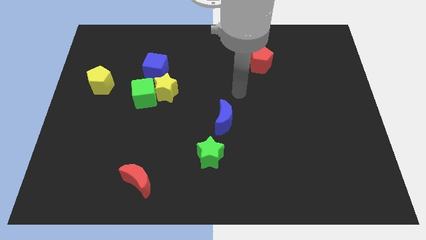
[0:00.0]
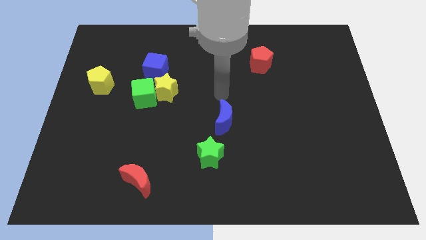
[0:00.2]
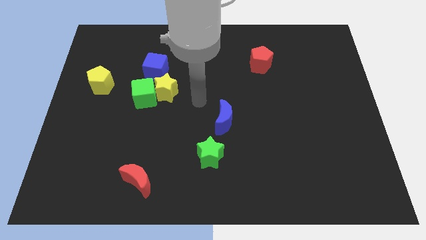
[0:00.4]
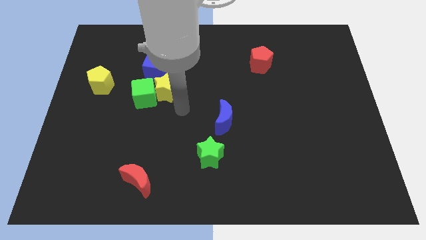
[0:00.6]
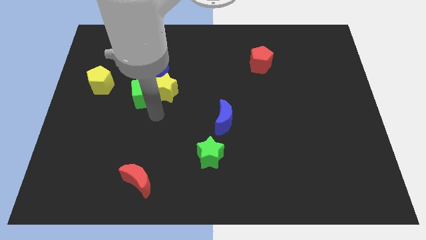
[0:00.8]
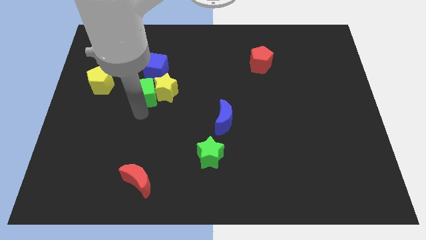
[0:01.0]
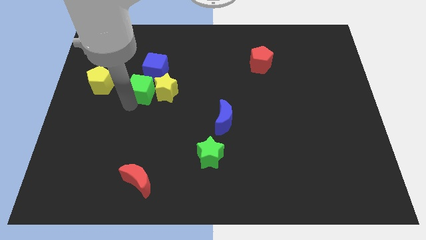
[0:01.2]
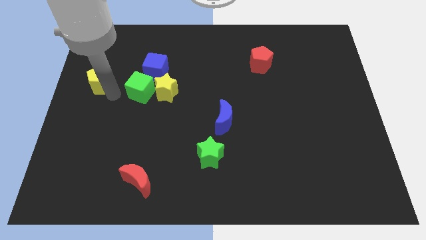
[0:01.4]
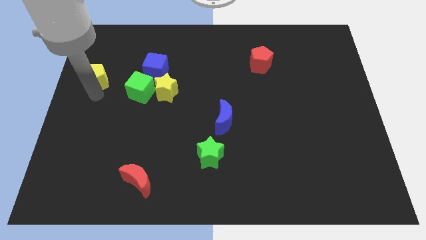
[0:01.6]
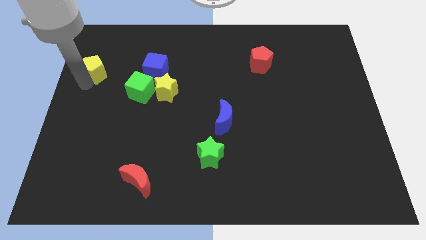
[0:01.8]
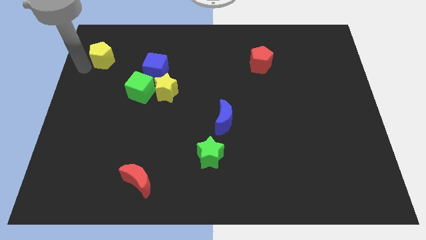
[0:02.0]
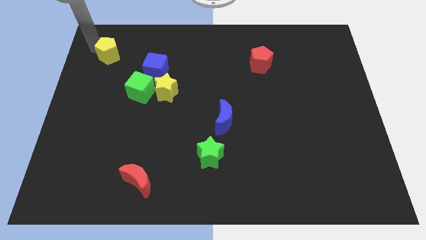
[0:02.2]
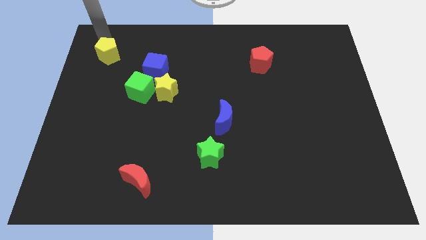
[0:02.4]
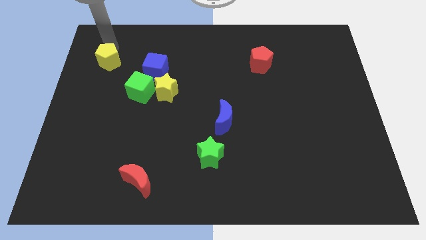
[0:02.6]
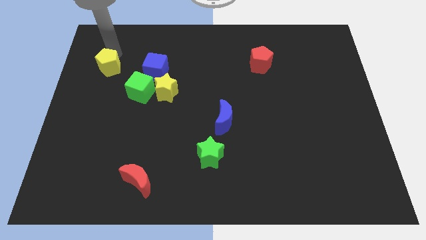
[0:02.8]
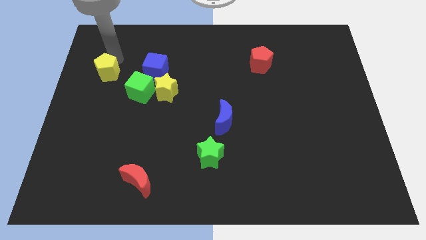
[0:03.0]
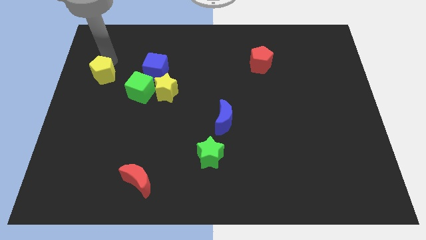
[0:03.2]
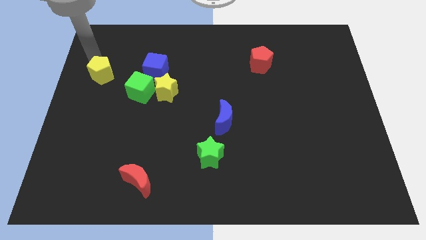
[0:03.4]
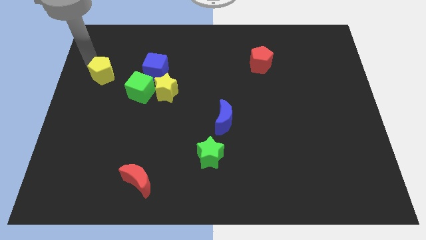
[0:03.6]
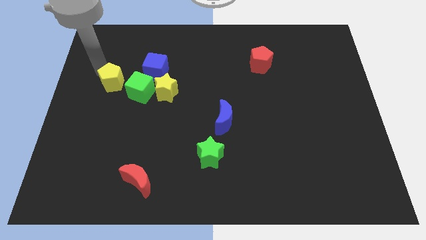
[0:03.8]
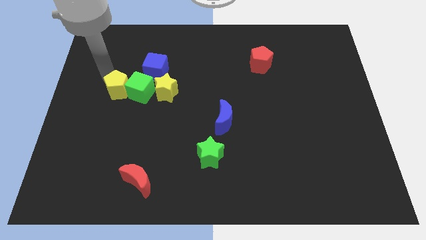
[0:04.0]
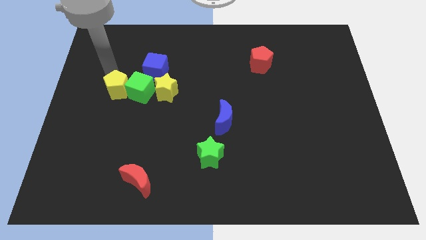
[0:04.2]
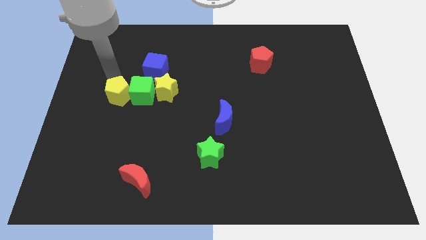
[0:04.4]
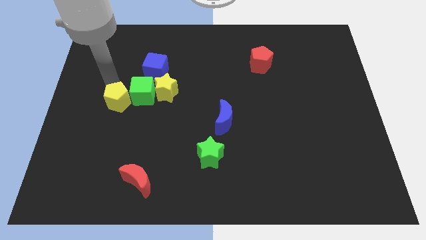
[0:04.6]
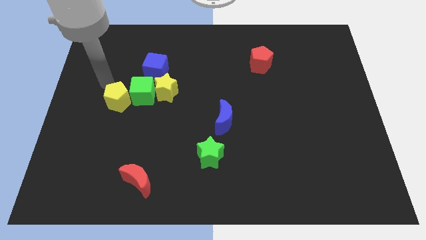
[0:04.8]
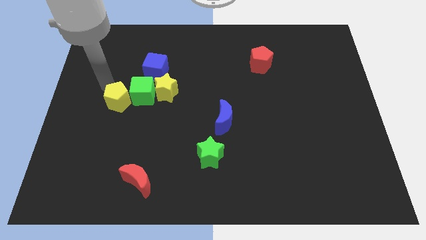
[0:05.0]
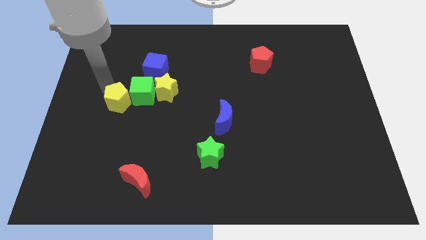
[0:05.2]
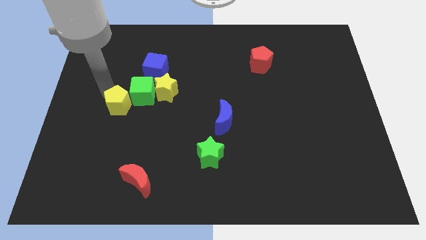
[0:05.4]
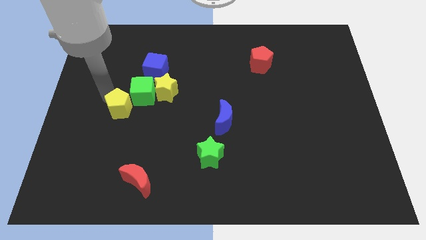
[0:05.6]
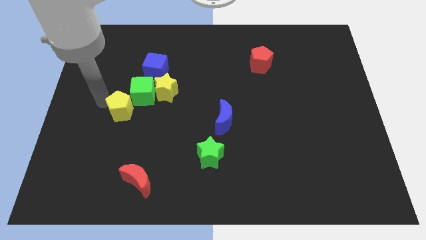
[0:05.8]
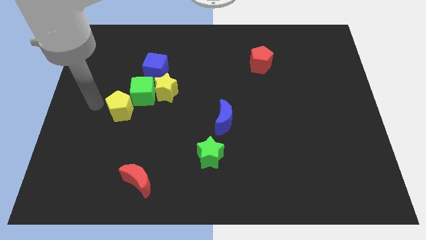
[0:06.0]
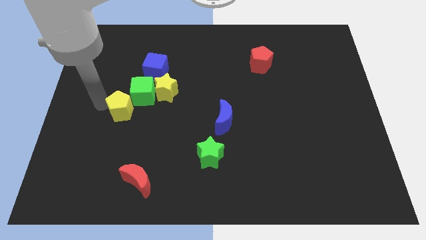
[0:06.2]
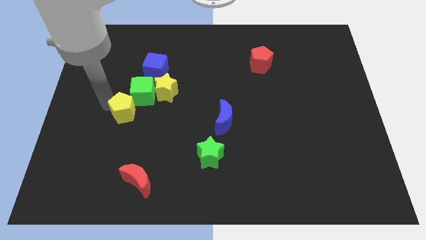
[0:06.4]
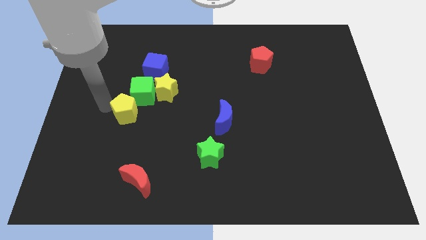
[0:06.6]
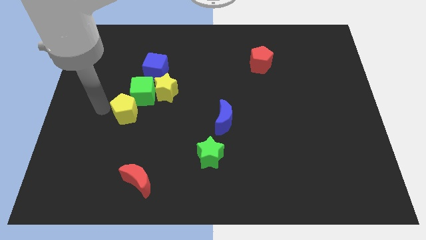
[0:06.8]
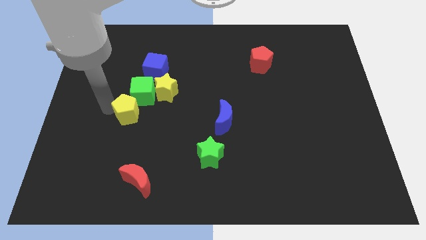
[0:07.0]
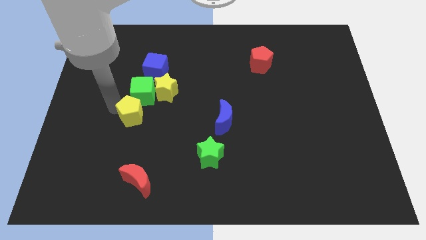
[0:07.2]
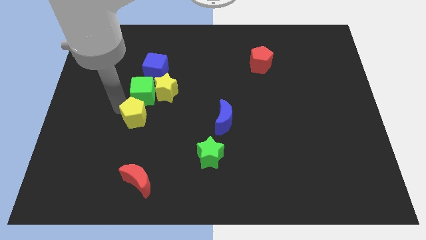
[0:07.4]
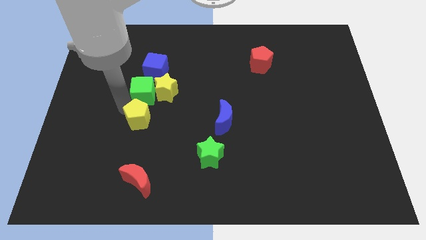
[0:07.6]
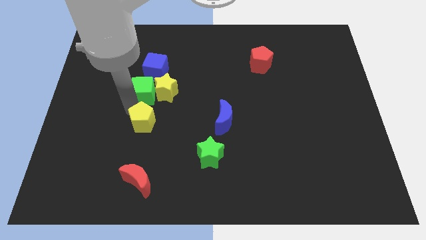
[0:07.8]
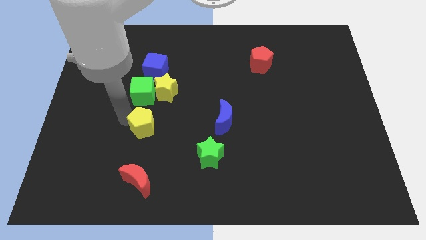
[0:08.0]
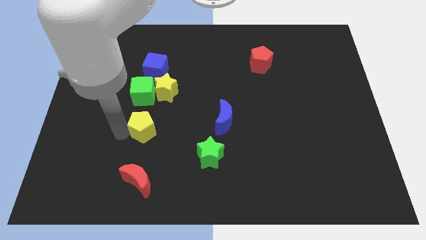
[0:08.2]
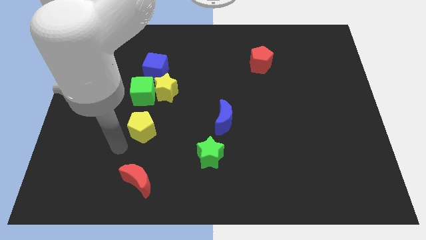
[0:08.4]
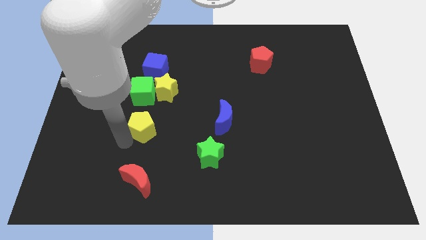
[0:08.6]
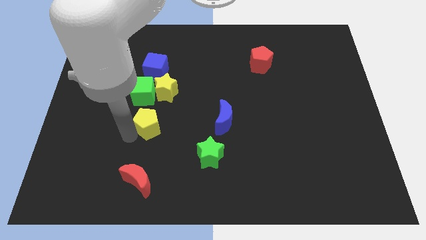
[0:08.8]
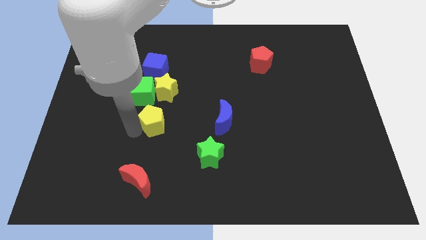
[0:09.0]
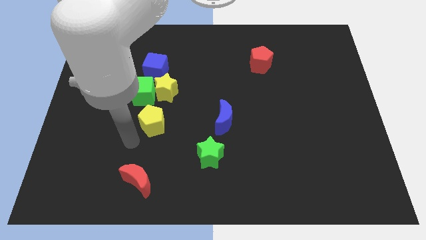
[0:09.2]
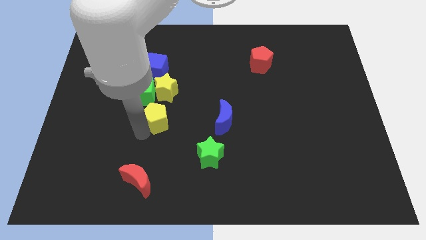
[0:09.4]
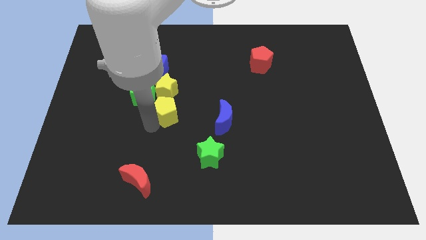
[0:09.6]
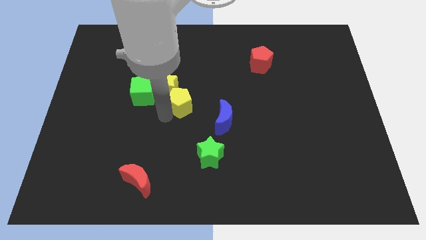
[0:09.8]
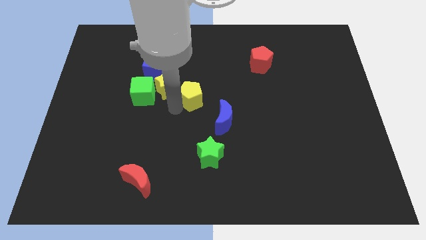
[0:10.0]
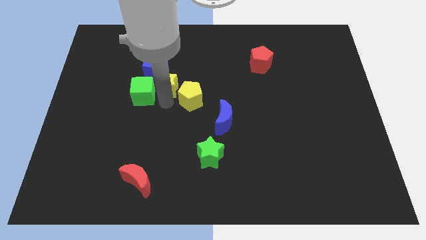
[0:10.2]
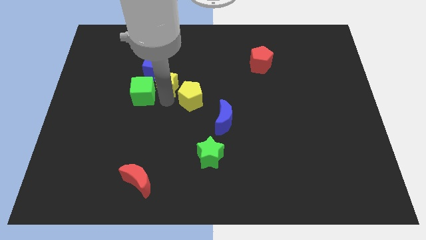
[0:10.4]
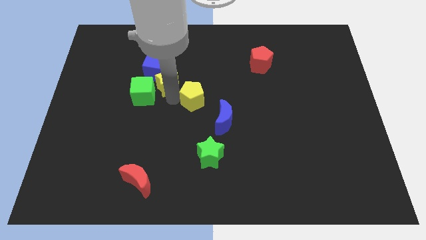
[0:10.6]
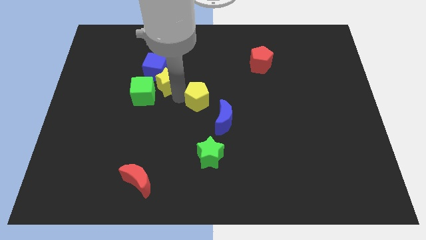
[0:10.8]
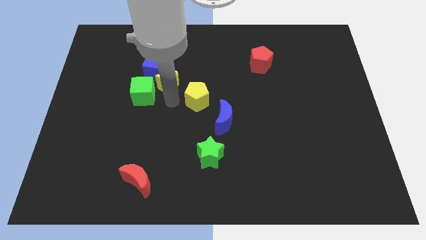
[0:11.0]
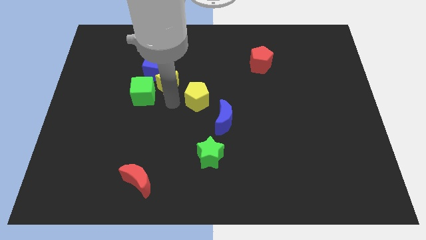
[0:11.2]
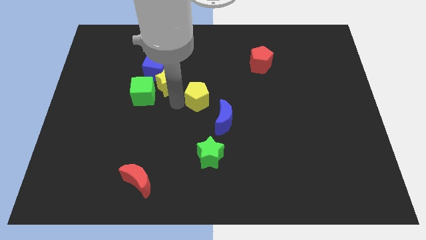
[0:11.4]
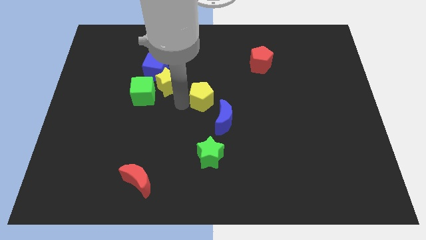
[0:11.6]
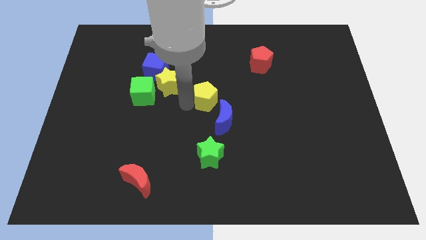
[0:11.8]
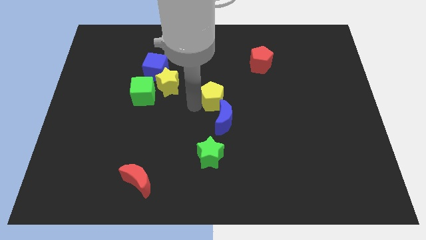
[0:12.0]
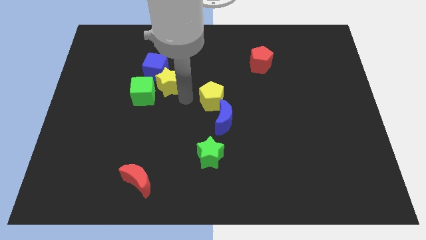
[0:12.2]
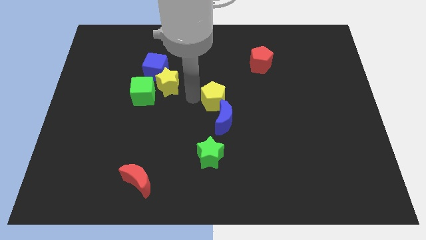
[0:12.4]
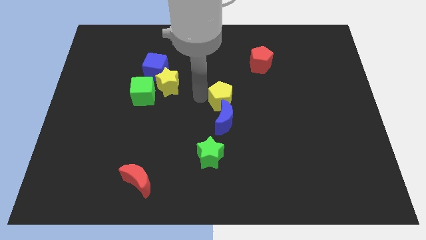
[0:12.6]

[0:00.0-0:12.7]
put the yellow pentagon to the top right of the blue moon

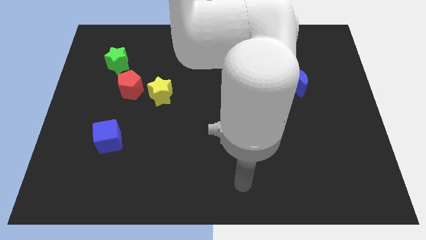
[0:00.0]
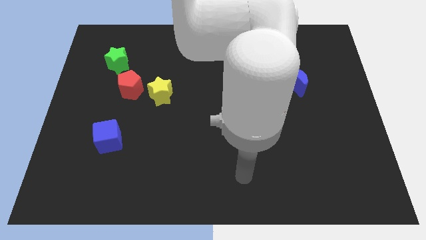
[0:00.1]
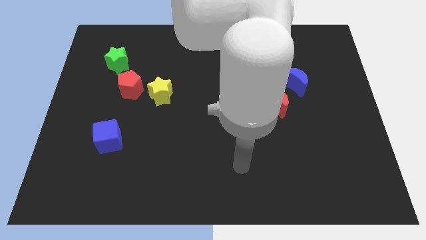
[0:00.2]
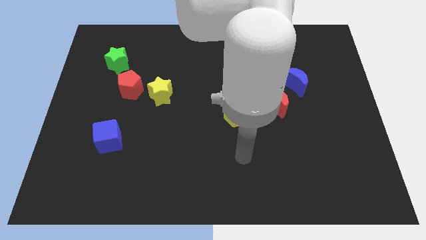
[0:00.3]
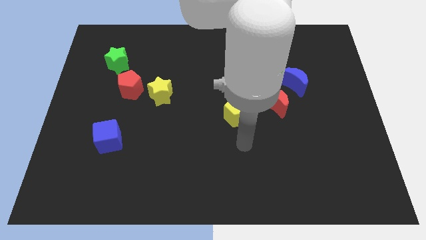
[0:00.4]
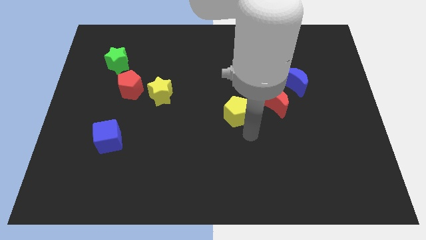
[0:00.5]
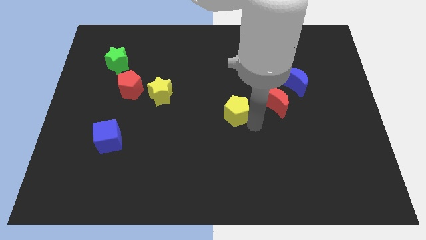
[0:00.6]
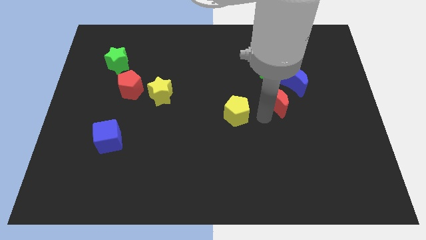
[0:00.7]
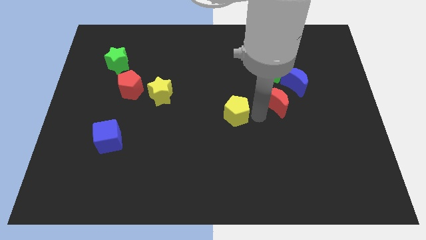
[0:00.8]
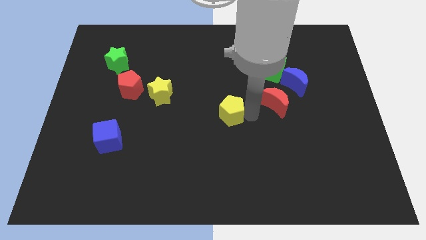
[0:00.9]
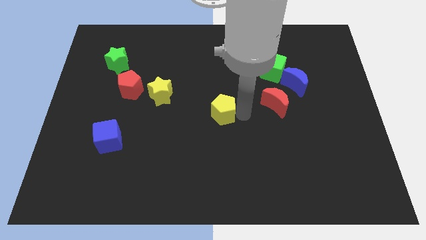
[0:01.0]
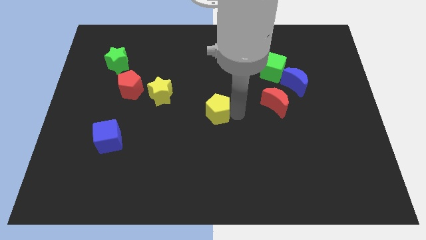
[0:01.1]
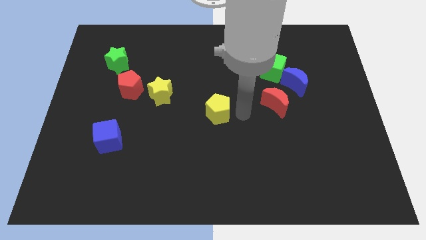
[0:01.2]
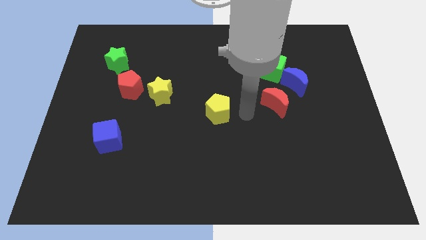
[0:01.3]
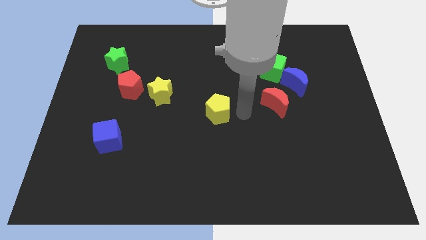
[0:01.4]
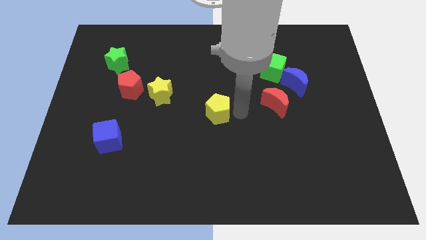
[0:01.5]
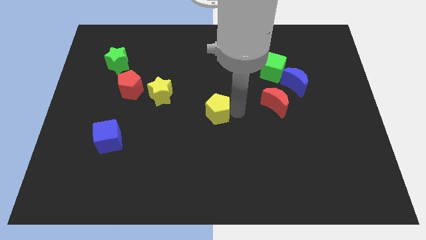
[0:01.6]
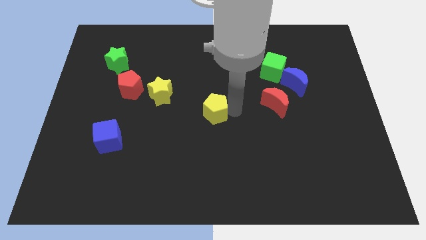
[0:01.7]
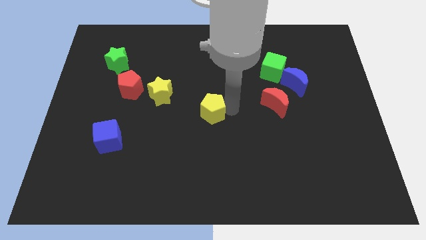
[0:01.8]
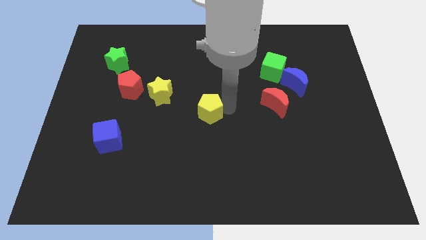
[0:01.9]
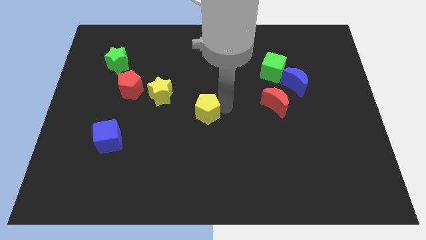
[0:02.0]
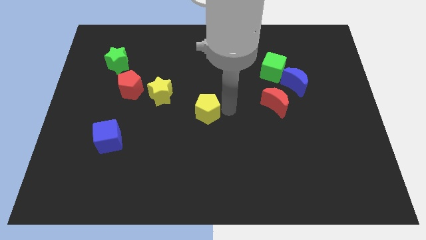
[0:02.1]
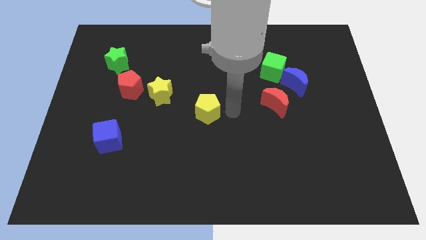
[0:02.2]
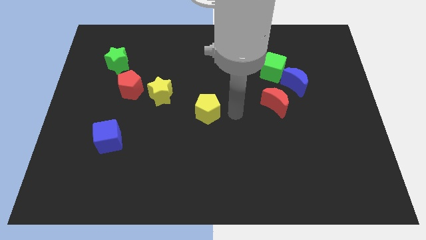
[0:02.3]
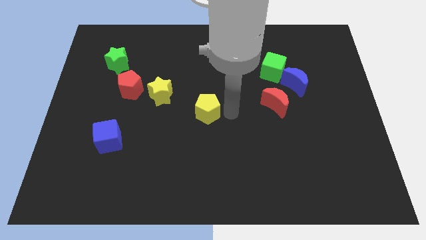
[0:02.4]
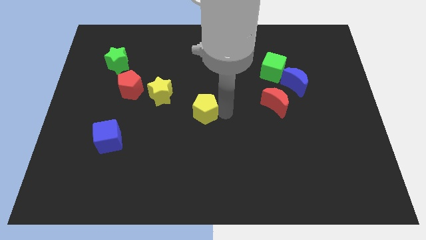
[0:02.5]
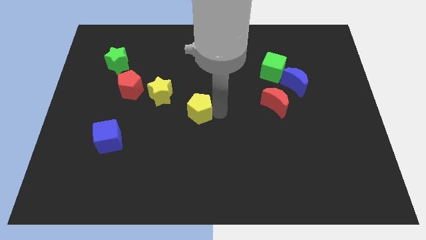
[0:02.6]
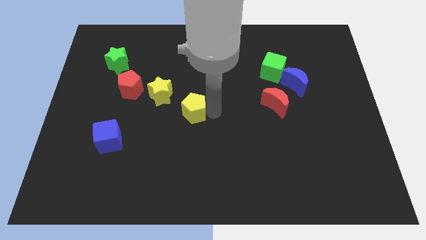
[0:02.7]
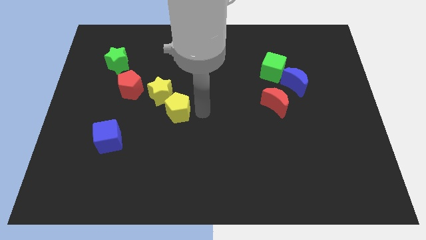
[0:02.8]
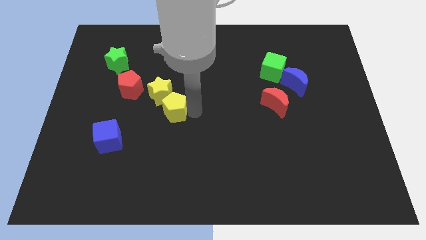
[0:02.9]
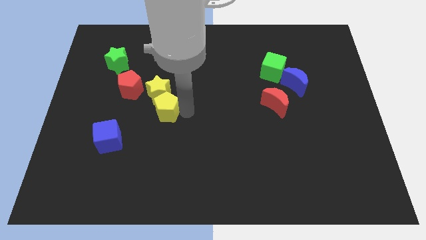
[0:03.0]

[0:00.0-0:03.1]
move the yellow pentagon diagonally down and to the right of the red pentagon
